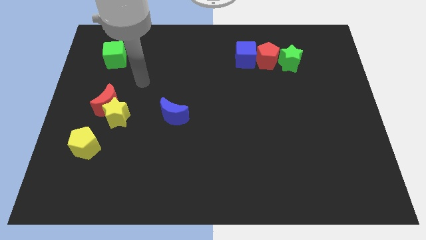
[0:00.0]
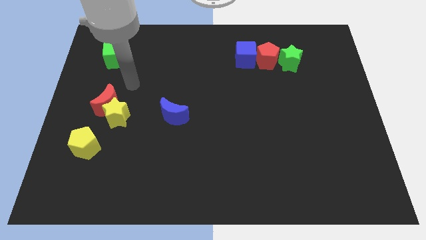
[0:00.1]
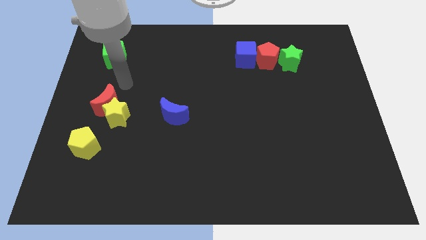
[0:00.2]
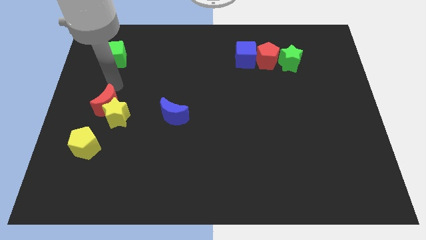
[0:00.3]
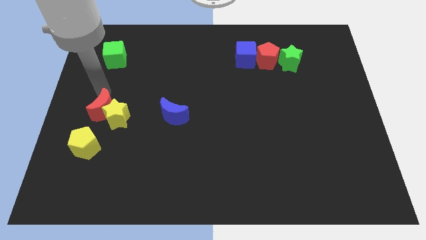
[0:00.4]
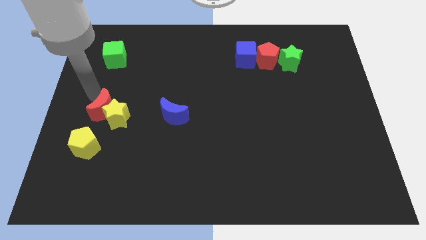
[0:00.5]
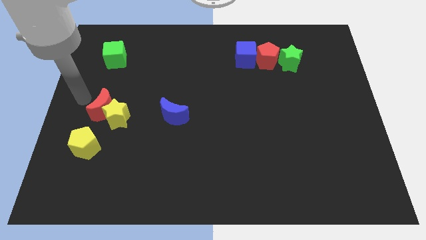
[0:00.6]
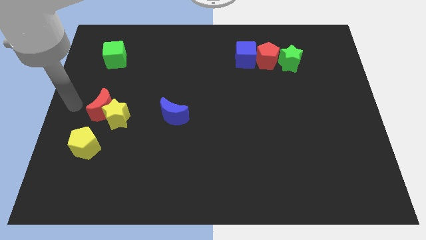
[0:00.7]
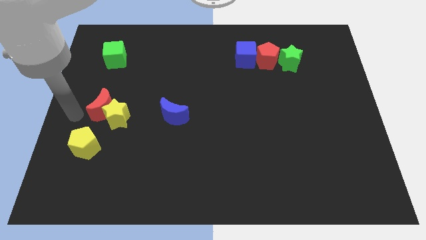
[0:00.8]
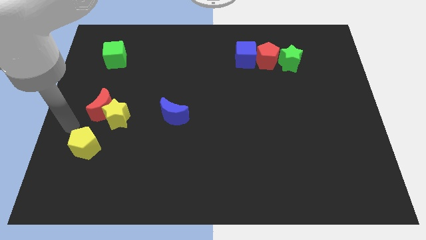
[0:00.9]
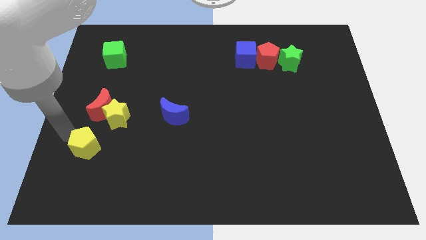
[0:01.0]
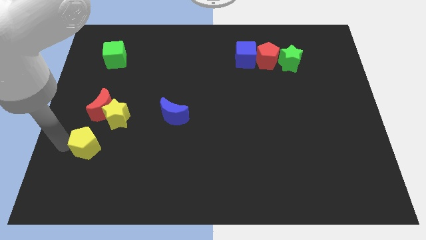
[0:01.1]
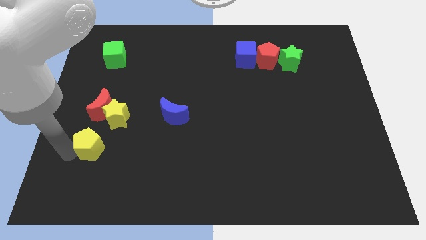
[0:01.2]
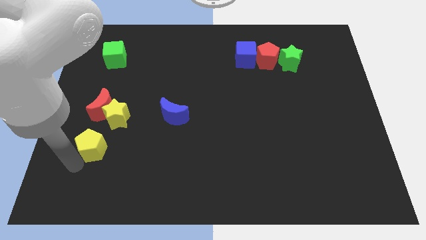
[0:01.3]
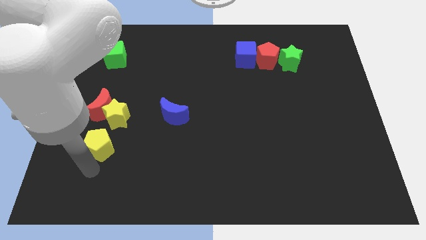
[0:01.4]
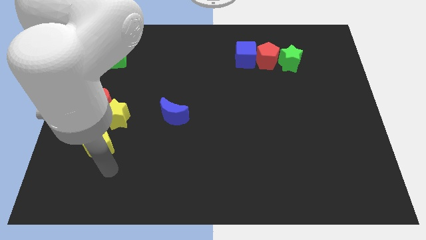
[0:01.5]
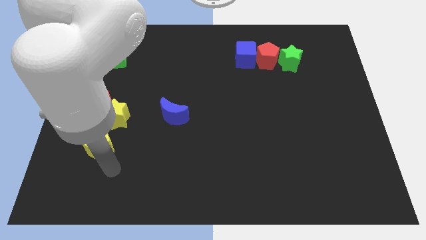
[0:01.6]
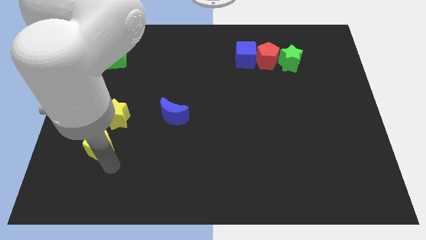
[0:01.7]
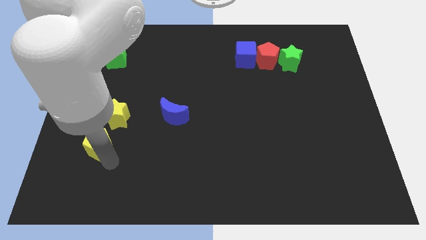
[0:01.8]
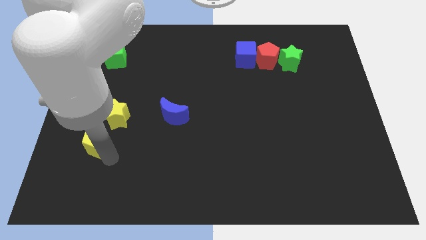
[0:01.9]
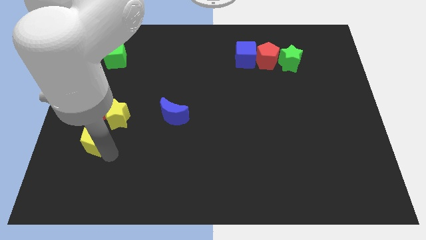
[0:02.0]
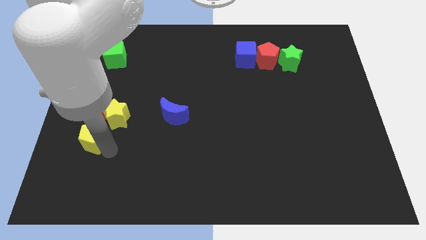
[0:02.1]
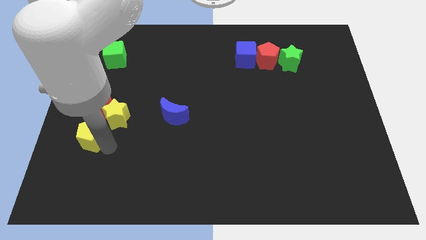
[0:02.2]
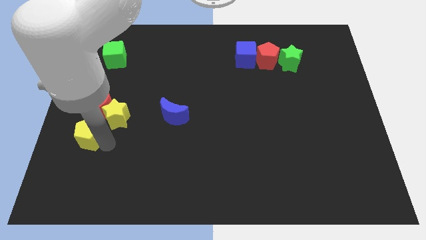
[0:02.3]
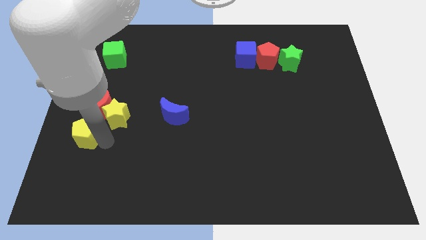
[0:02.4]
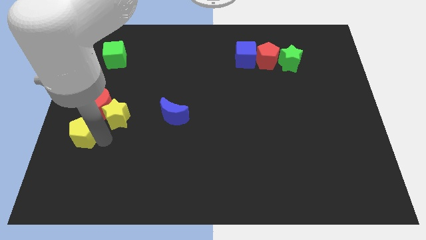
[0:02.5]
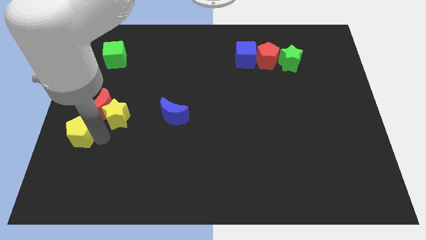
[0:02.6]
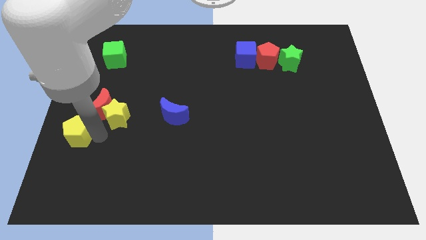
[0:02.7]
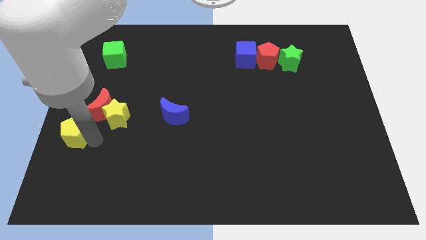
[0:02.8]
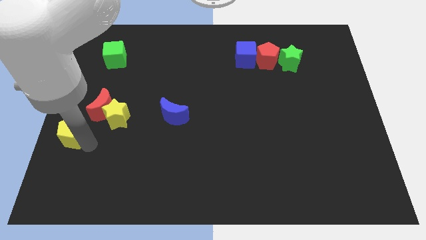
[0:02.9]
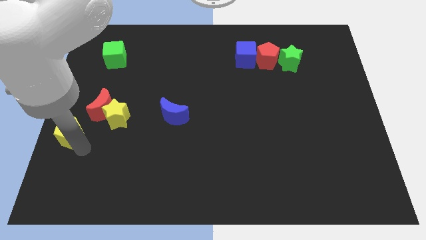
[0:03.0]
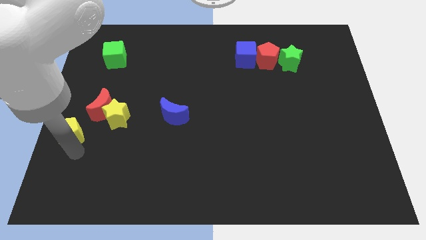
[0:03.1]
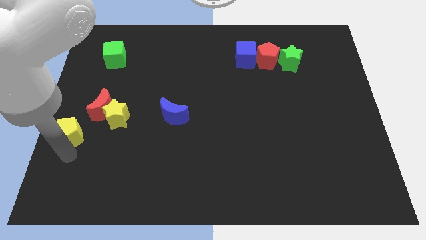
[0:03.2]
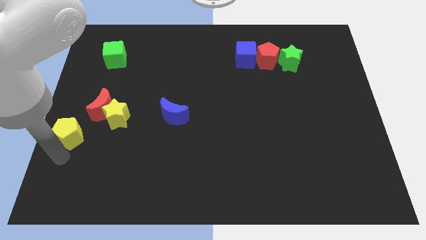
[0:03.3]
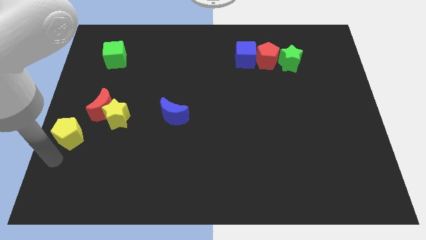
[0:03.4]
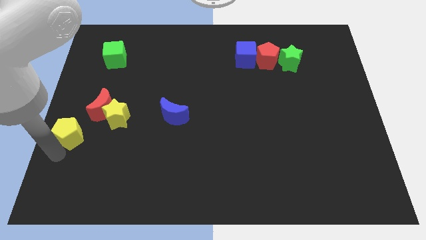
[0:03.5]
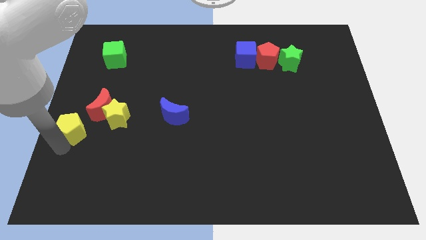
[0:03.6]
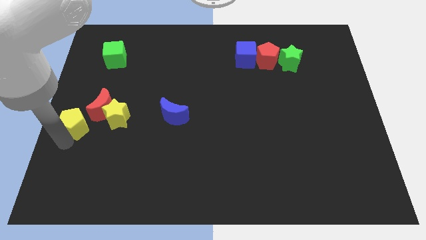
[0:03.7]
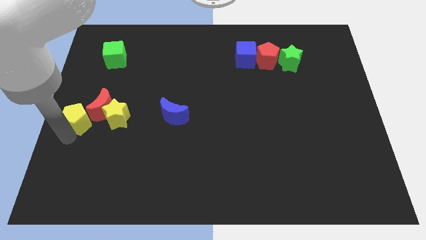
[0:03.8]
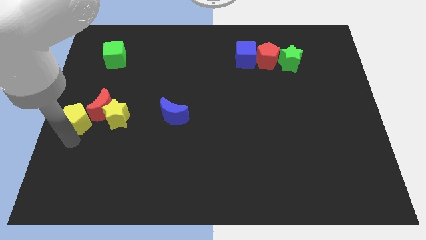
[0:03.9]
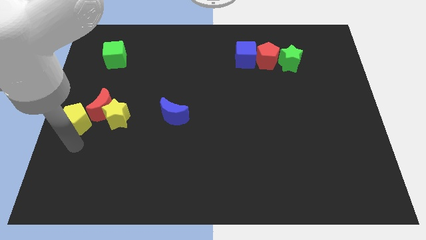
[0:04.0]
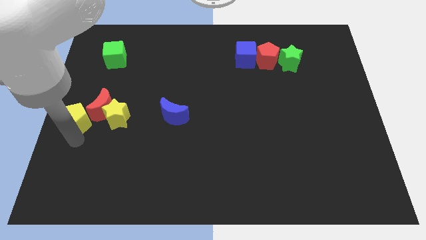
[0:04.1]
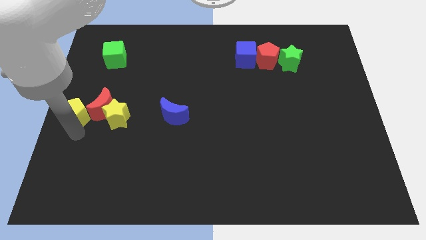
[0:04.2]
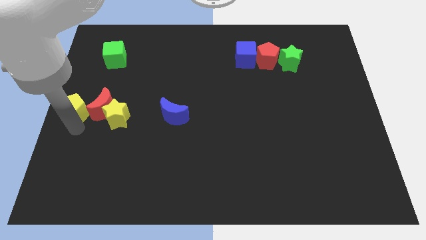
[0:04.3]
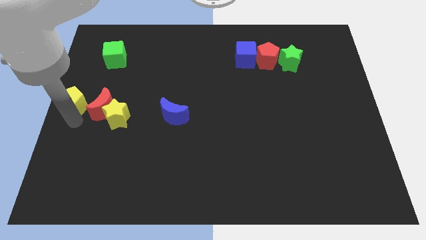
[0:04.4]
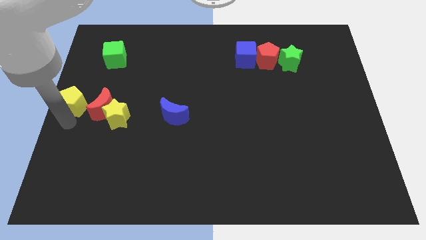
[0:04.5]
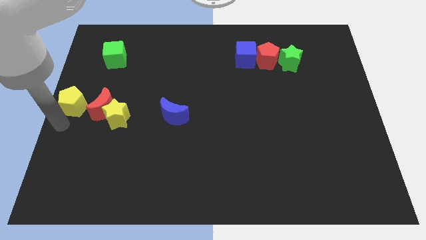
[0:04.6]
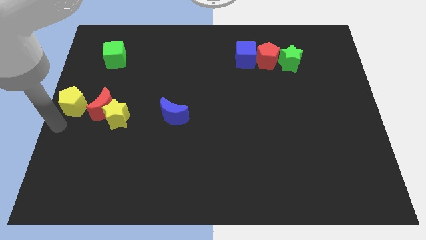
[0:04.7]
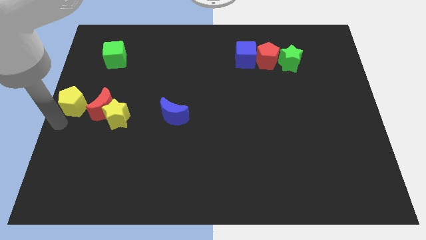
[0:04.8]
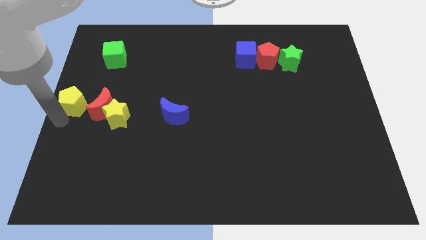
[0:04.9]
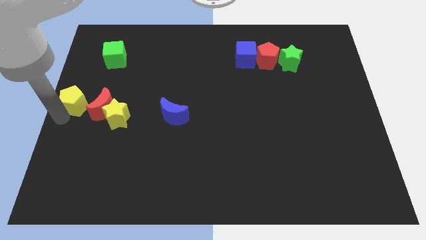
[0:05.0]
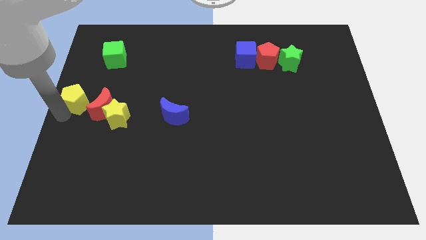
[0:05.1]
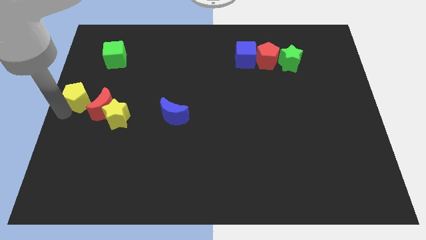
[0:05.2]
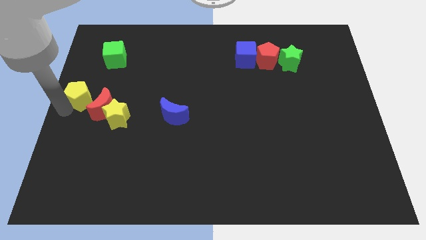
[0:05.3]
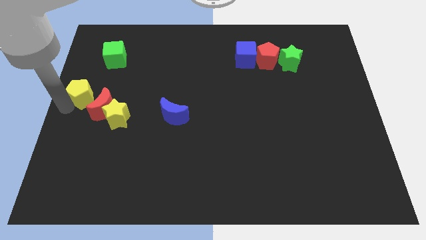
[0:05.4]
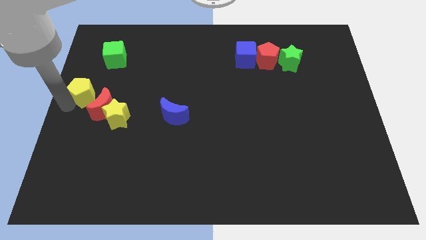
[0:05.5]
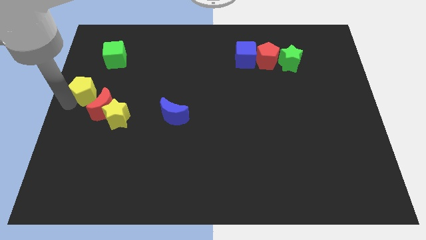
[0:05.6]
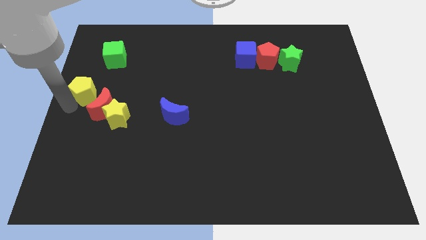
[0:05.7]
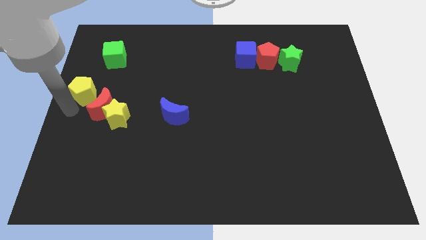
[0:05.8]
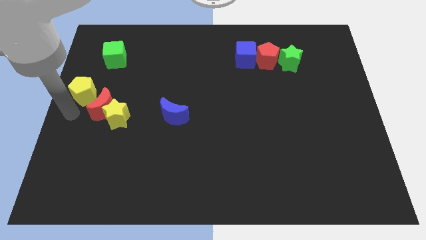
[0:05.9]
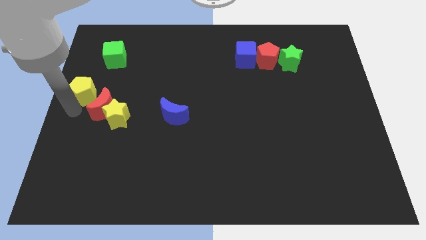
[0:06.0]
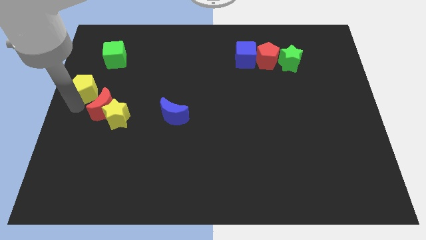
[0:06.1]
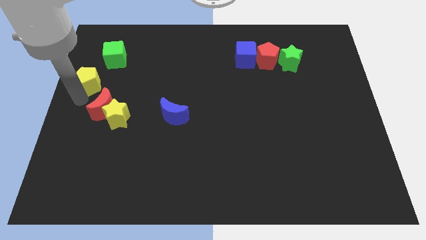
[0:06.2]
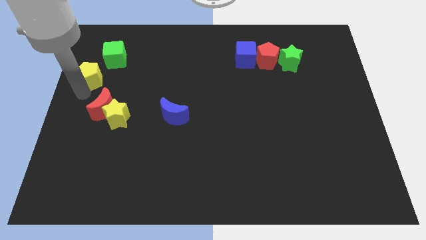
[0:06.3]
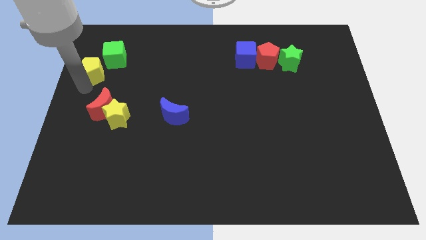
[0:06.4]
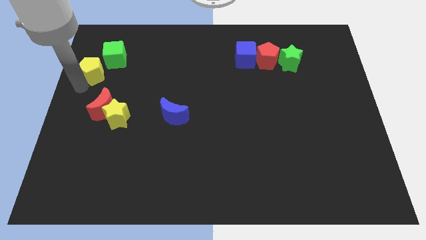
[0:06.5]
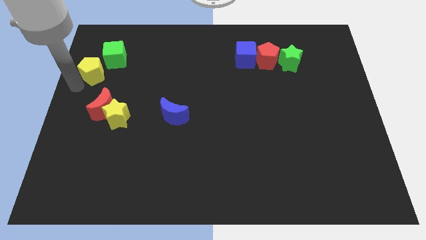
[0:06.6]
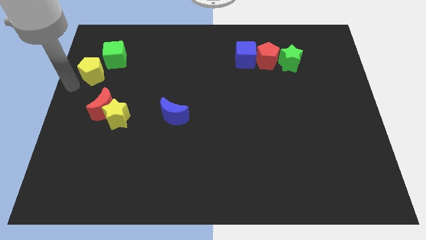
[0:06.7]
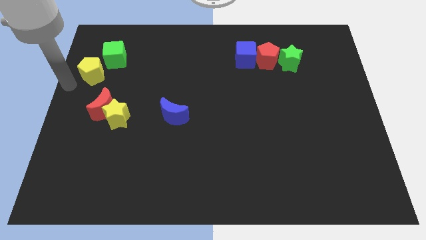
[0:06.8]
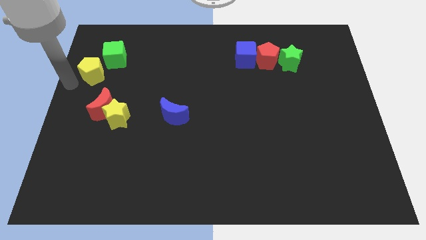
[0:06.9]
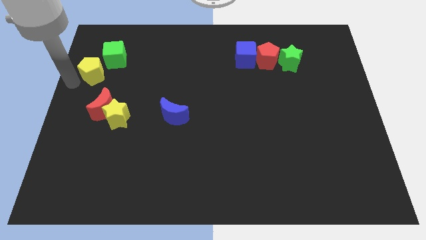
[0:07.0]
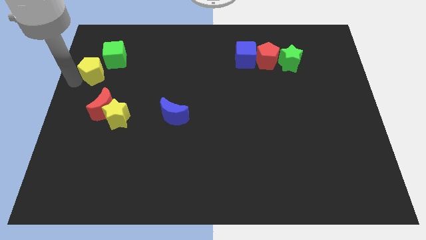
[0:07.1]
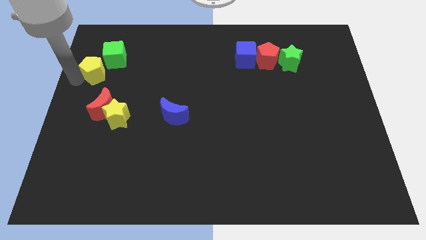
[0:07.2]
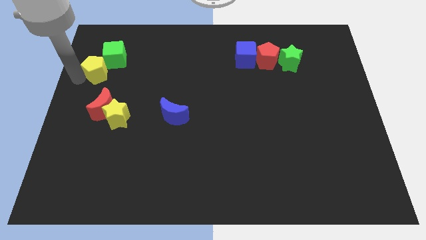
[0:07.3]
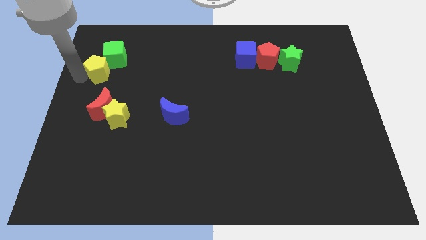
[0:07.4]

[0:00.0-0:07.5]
slide the yellow pentagon close to the green cube
